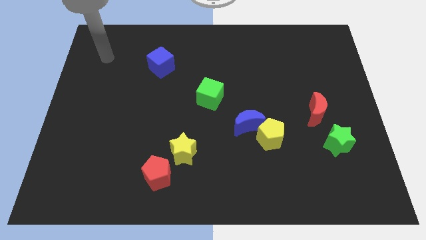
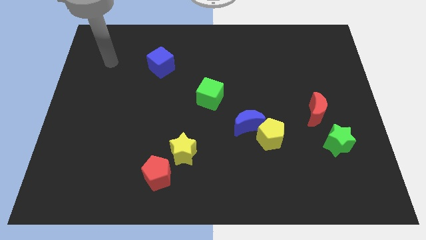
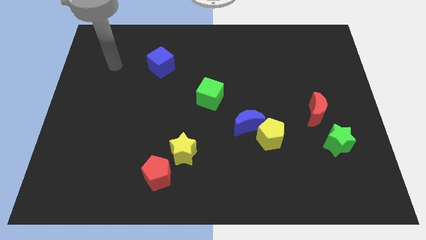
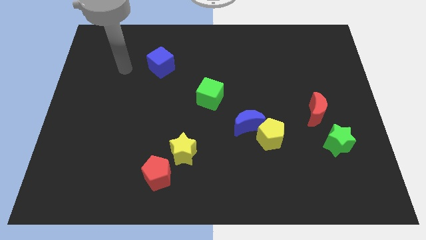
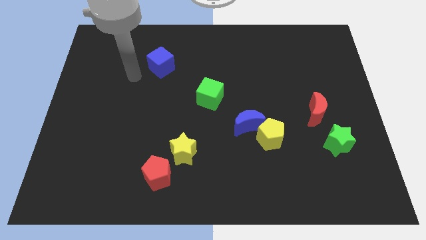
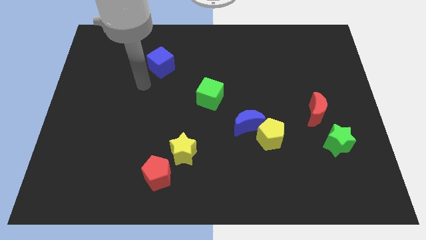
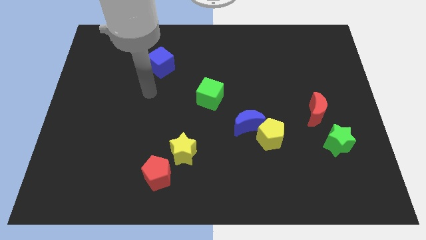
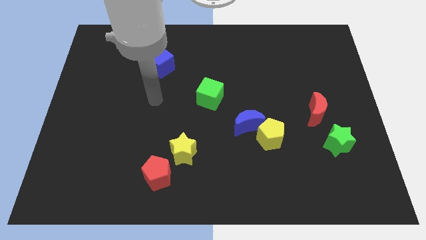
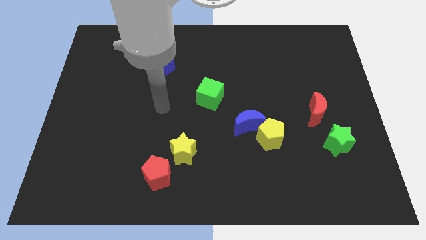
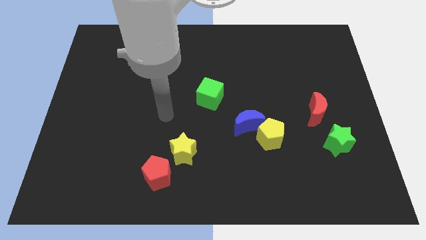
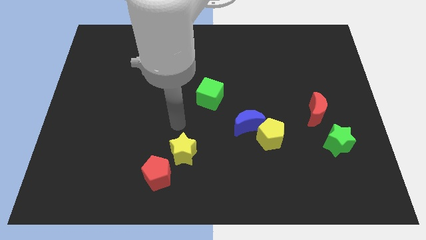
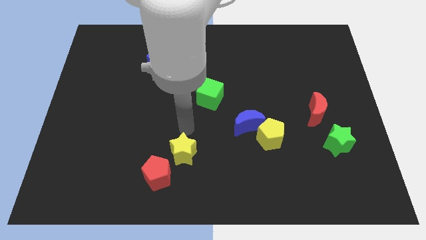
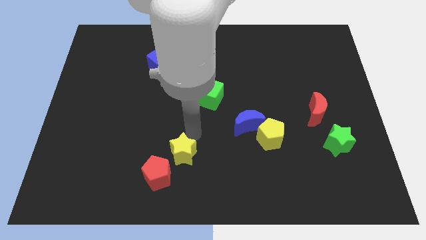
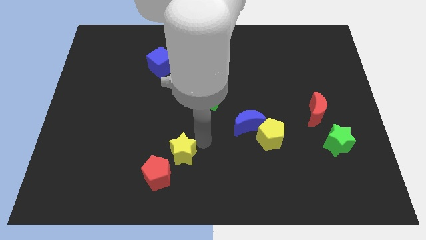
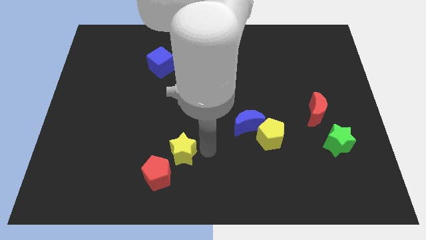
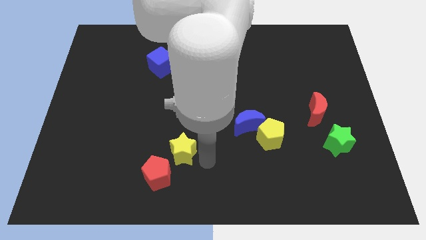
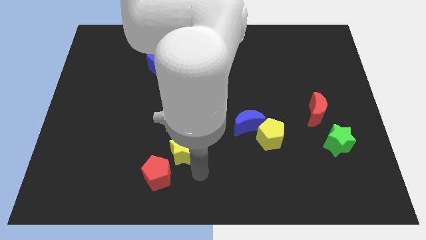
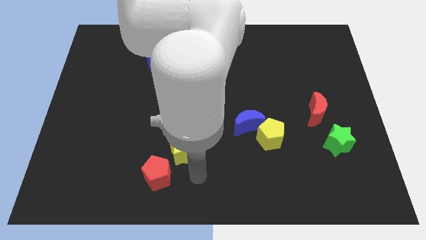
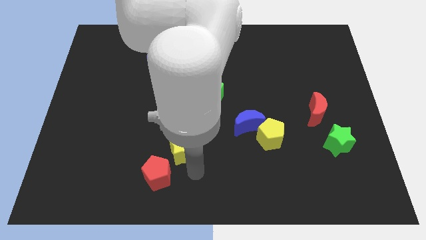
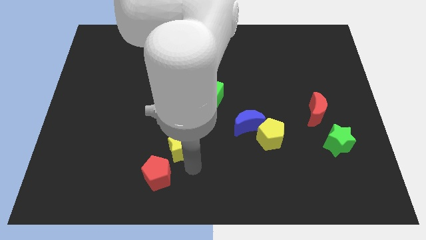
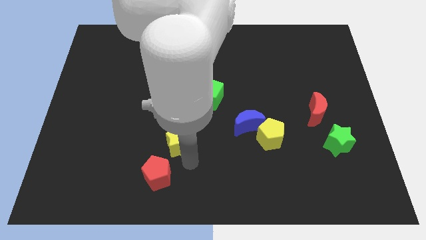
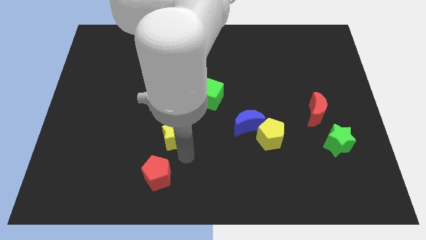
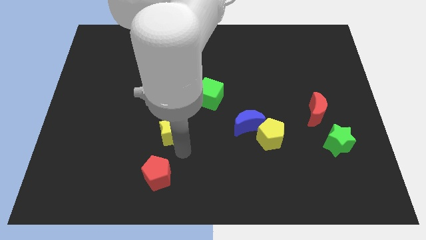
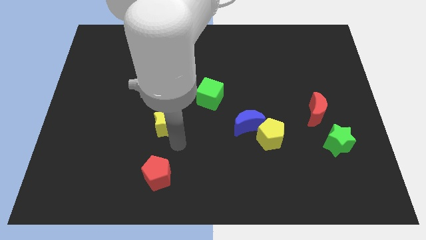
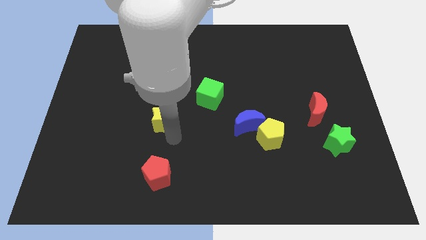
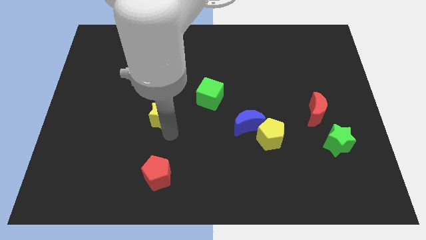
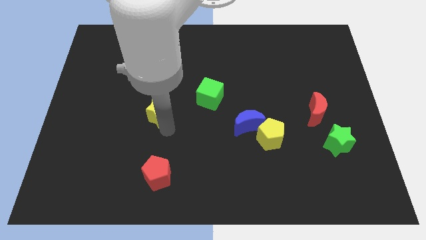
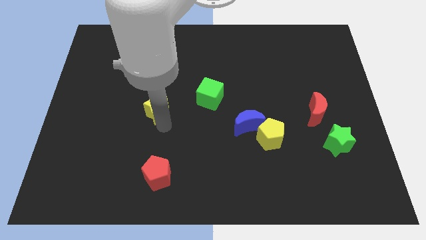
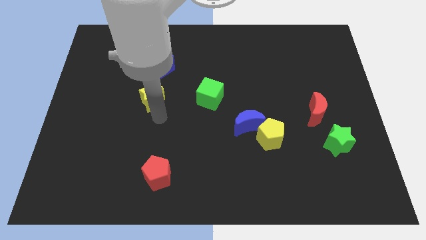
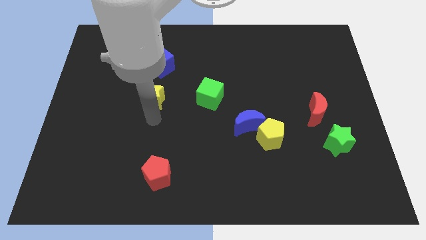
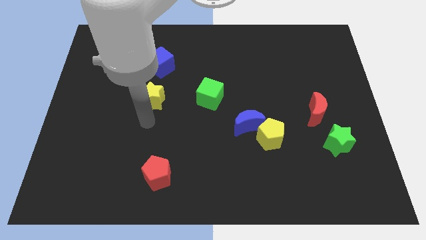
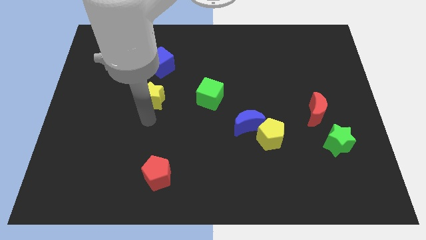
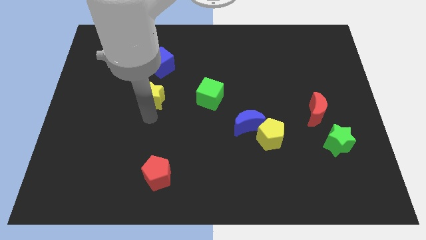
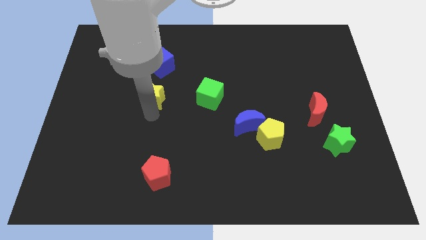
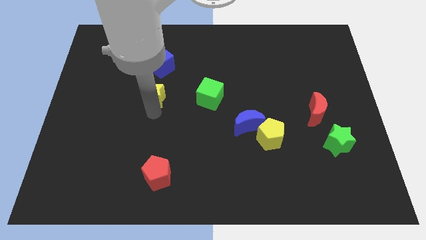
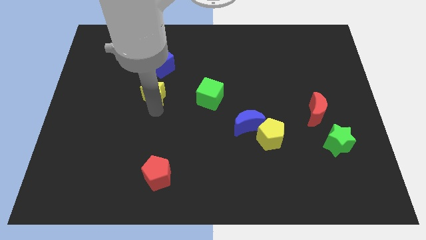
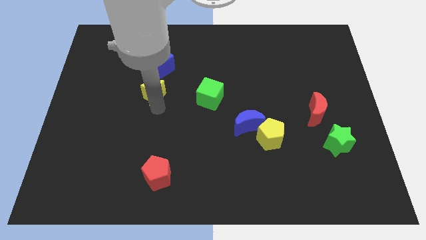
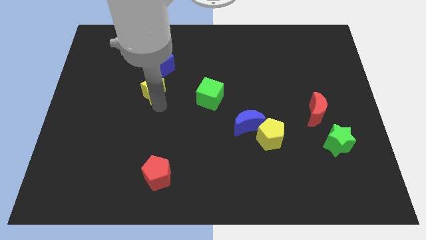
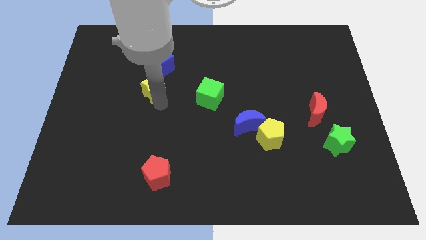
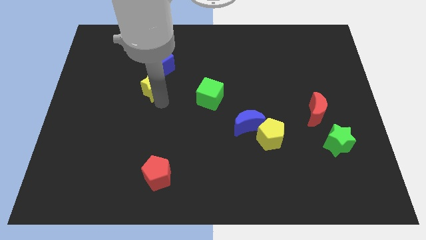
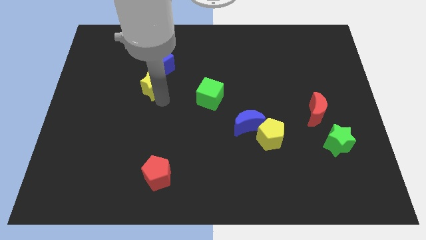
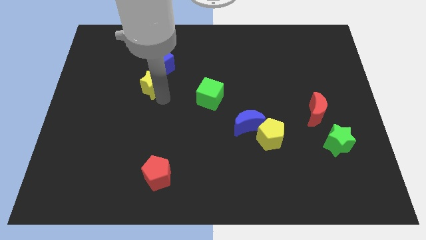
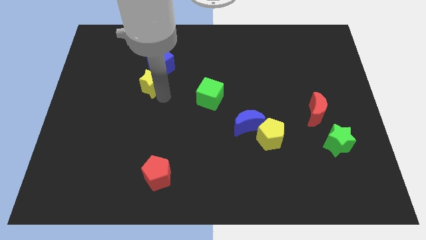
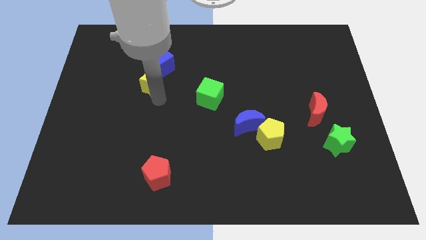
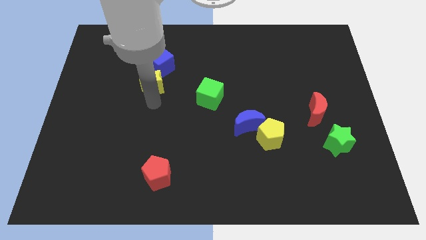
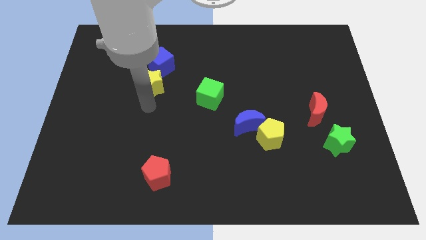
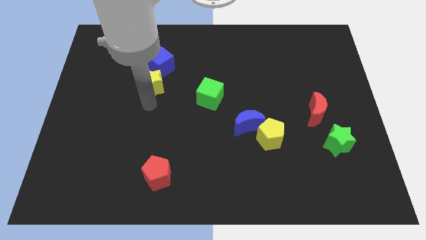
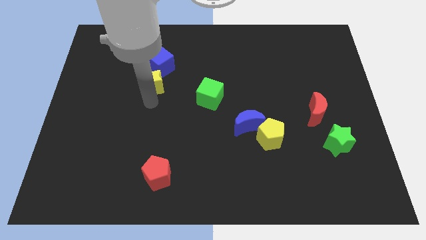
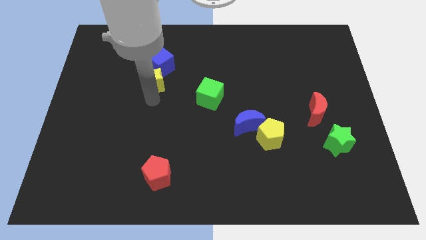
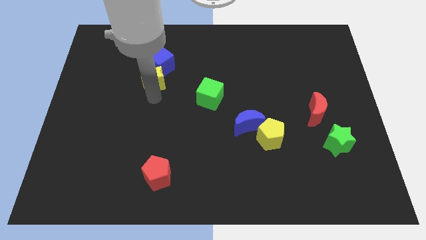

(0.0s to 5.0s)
move the yellow star towards the blue cube

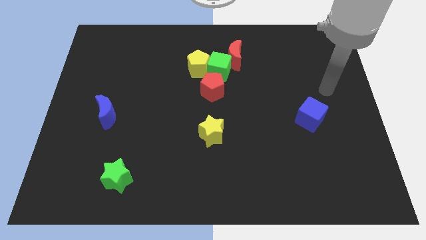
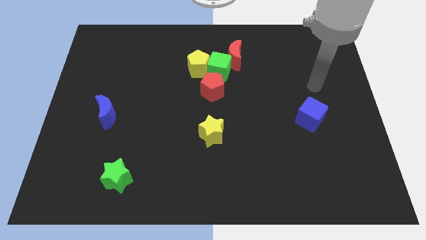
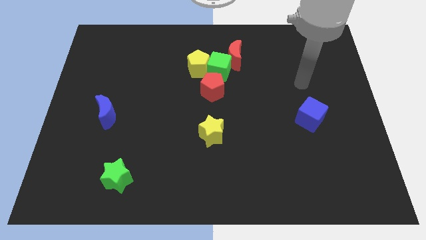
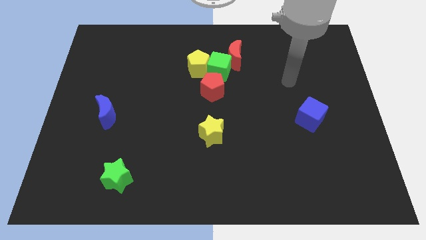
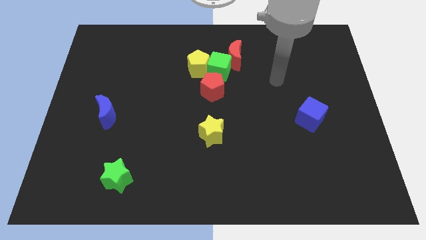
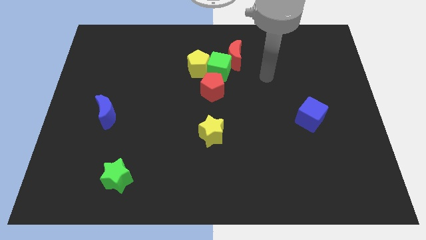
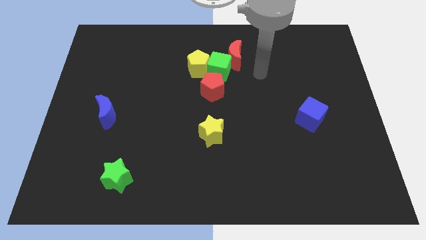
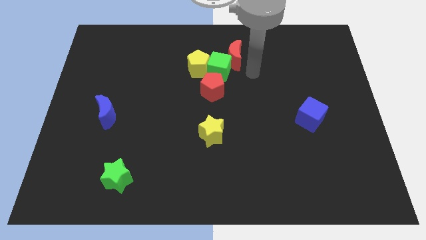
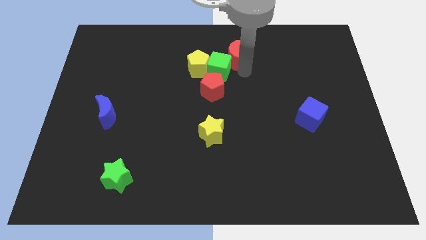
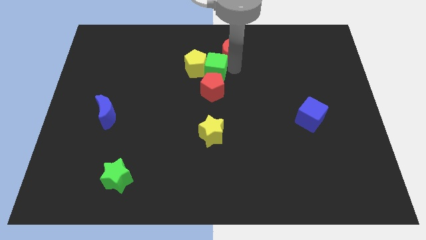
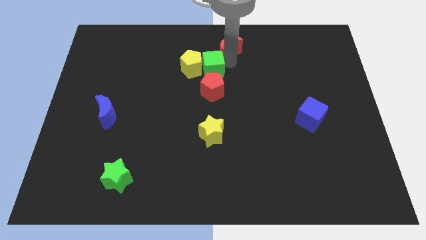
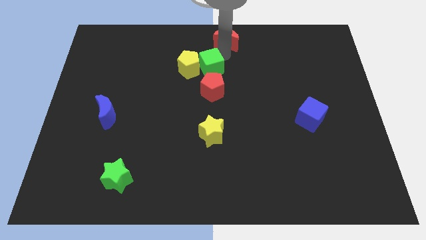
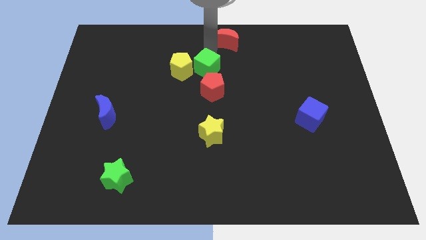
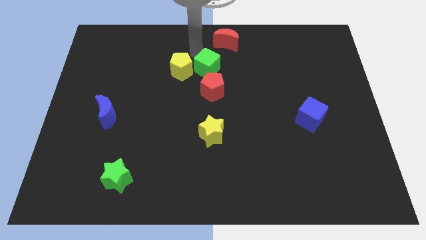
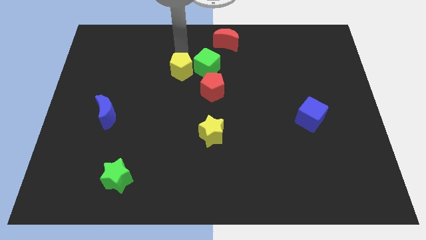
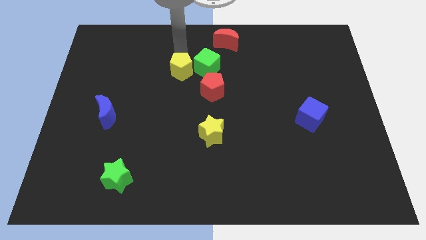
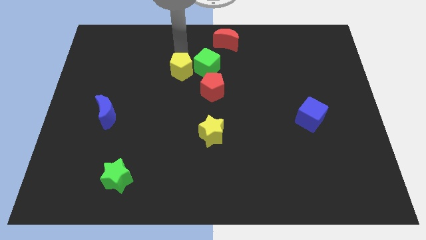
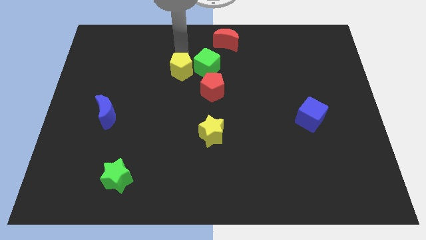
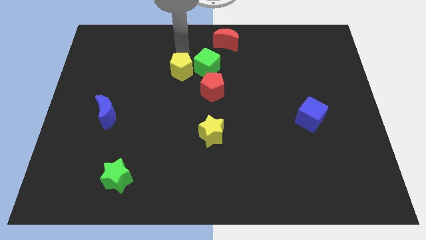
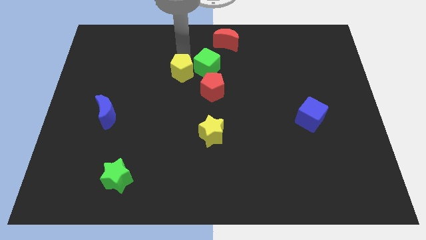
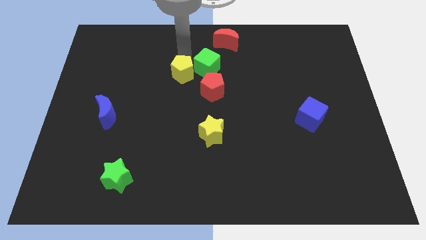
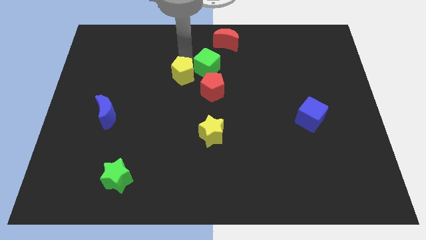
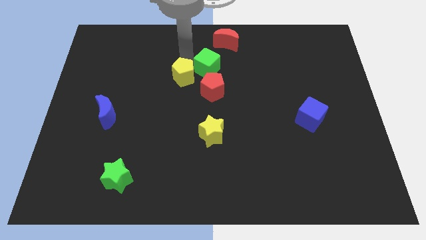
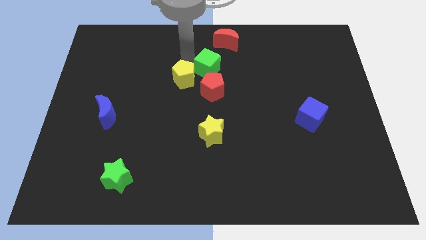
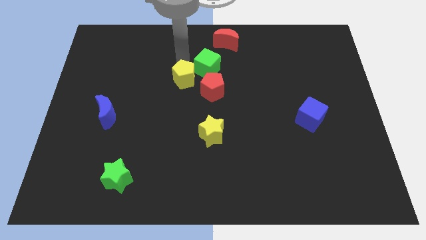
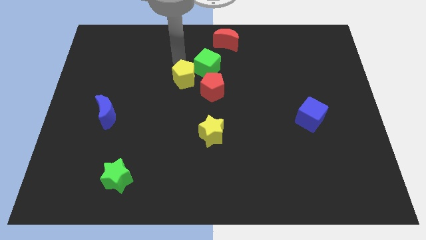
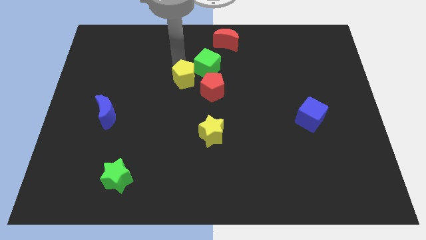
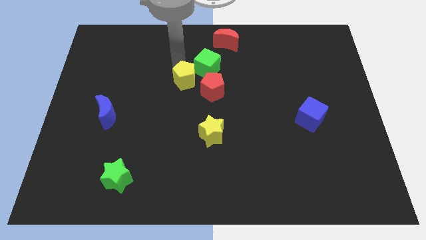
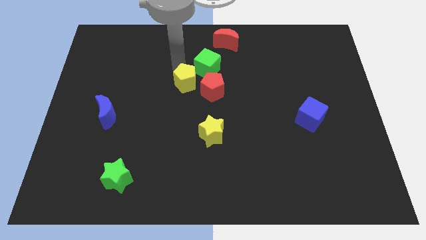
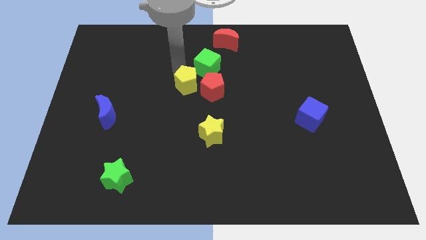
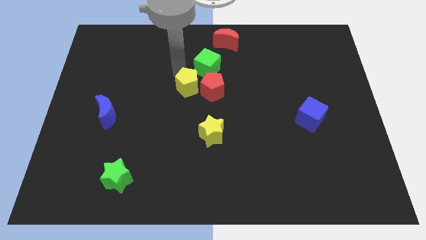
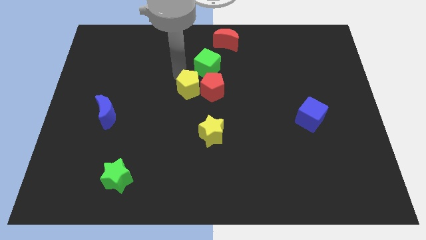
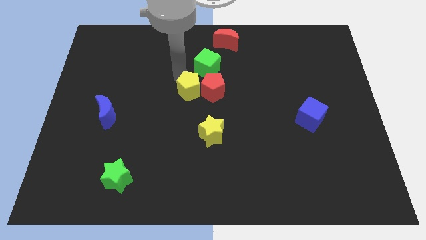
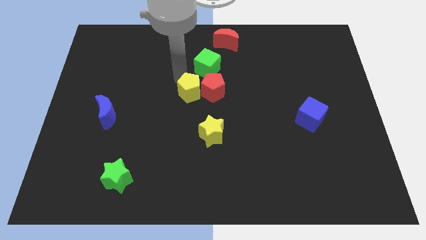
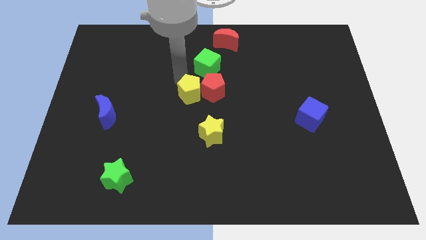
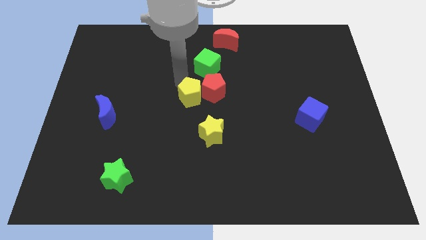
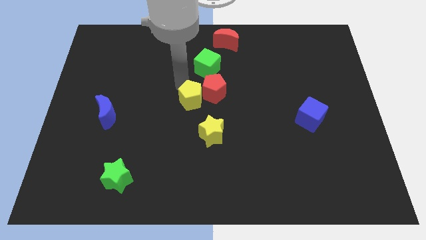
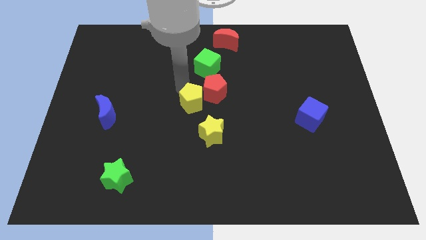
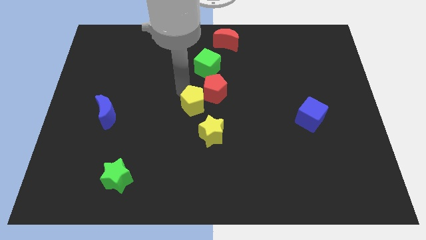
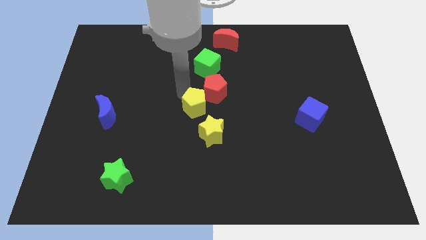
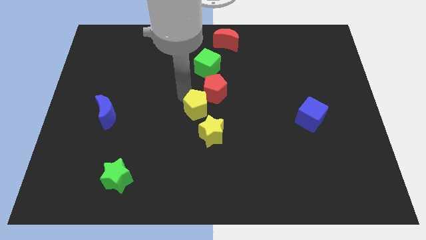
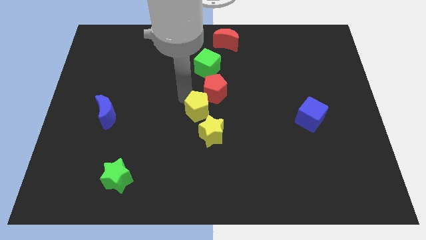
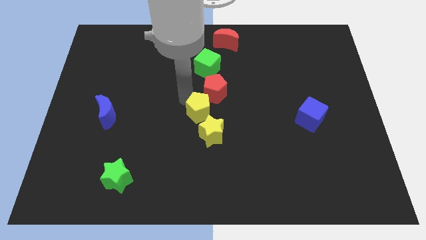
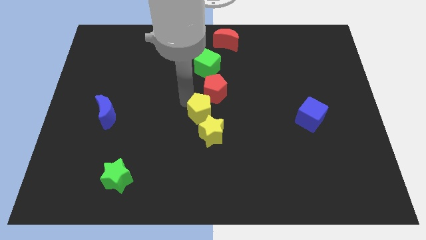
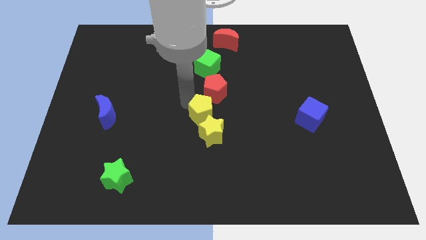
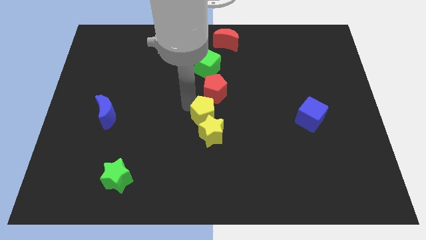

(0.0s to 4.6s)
put the yellow pentagon towards the yellow star
